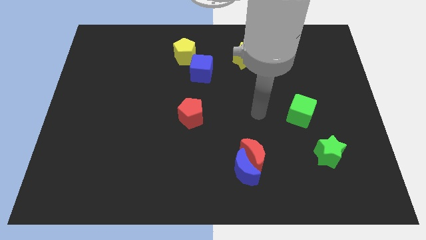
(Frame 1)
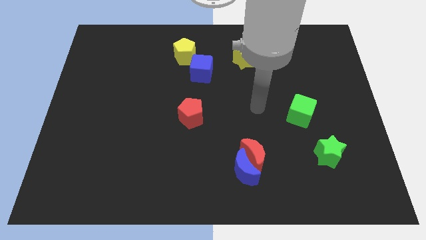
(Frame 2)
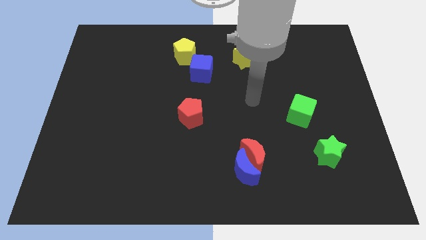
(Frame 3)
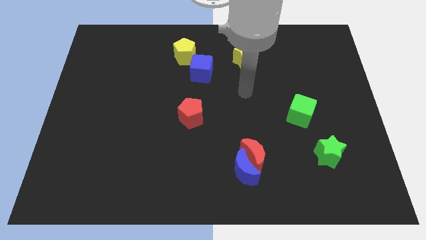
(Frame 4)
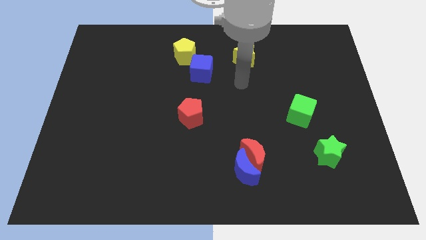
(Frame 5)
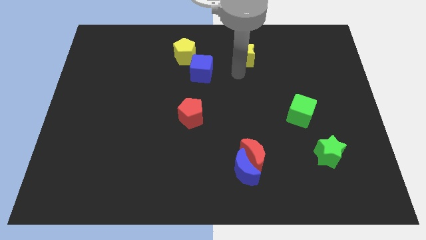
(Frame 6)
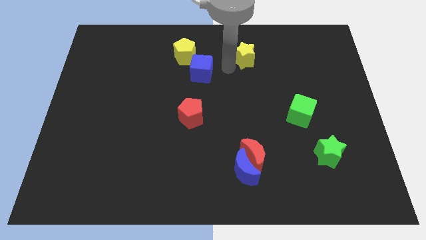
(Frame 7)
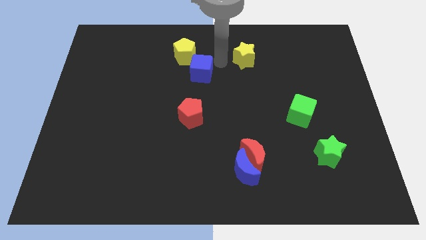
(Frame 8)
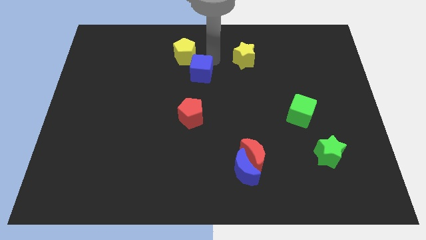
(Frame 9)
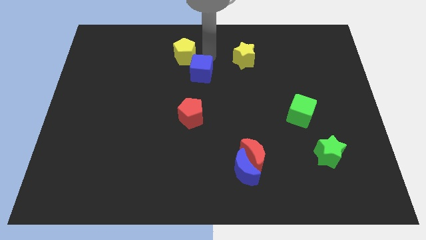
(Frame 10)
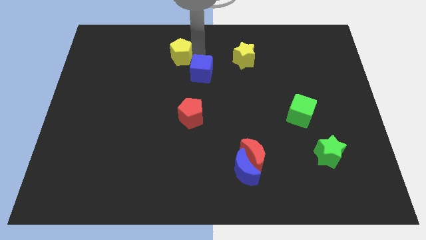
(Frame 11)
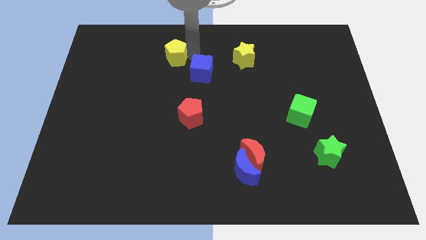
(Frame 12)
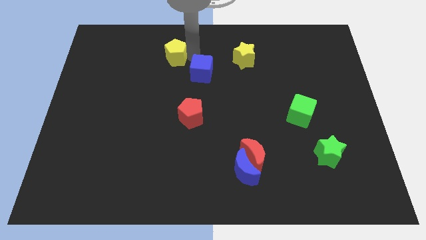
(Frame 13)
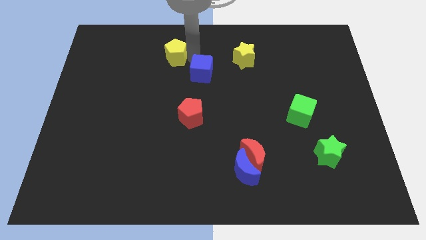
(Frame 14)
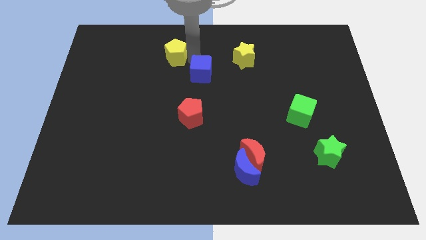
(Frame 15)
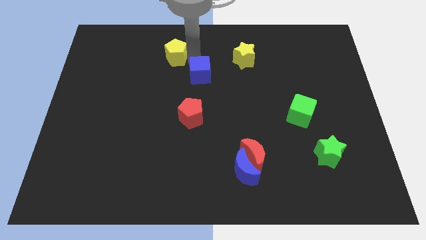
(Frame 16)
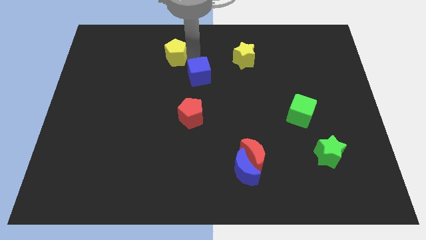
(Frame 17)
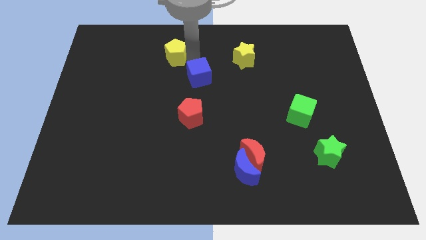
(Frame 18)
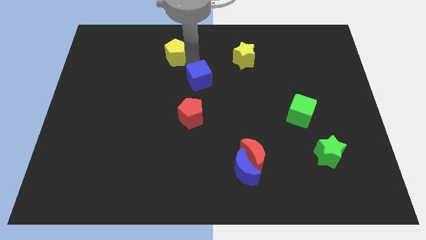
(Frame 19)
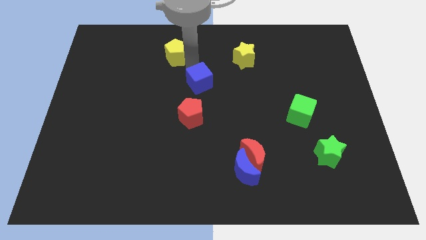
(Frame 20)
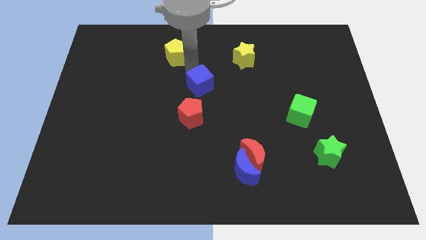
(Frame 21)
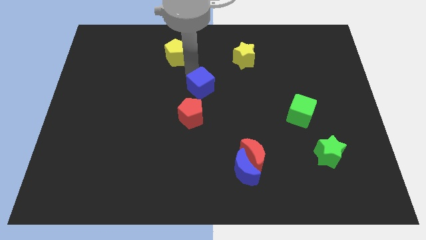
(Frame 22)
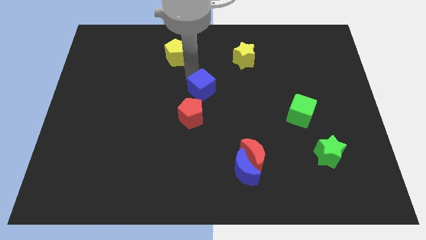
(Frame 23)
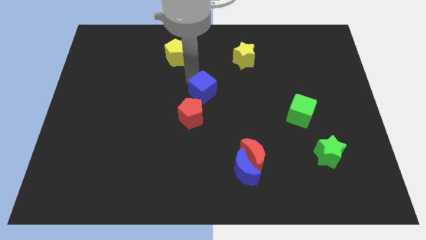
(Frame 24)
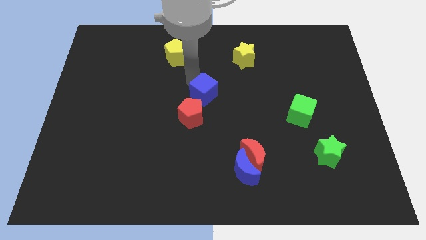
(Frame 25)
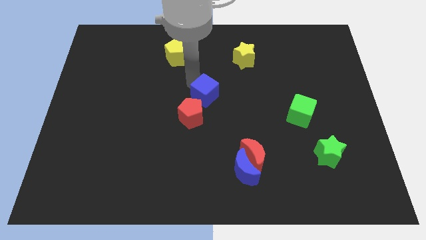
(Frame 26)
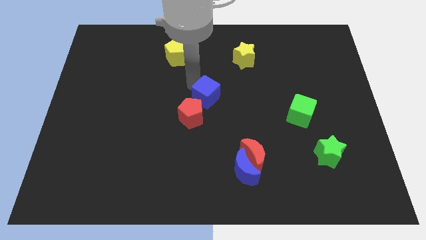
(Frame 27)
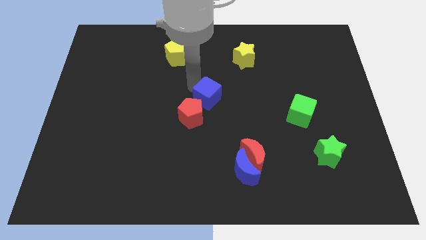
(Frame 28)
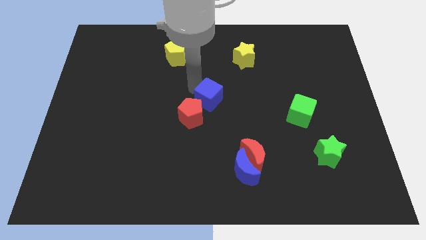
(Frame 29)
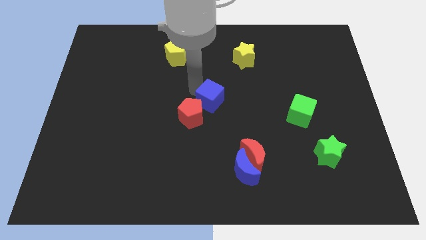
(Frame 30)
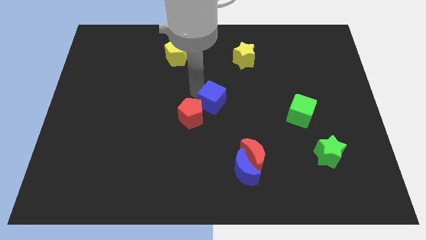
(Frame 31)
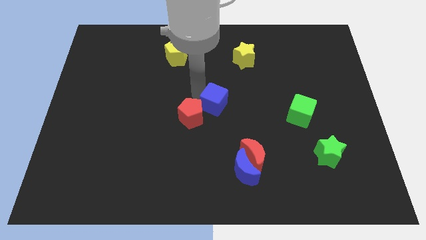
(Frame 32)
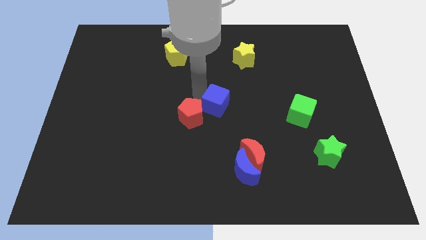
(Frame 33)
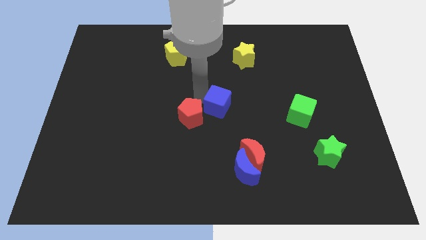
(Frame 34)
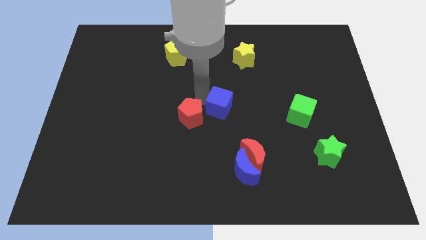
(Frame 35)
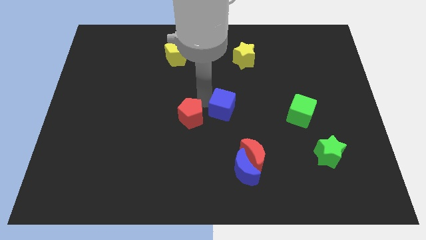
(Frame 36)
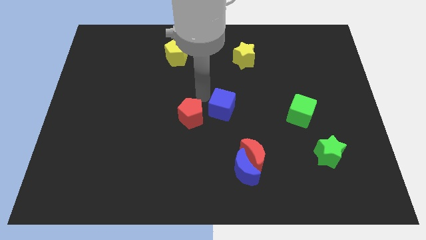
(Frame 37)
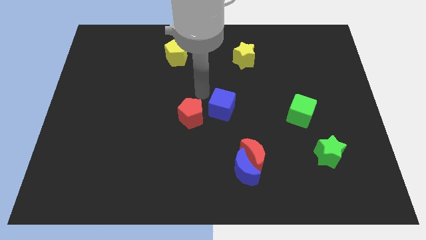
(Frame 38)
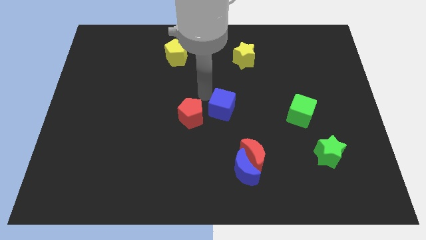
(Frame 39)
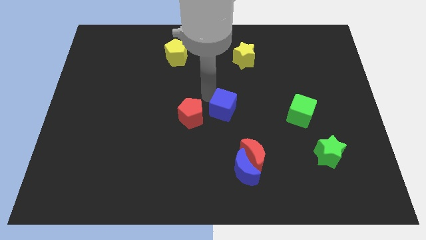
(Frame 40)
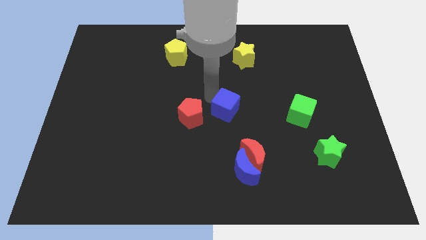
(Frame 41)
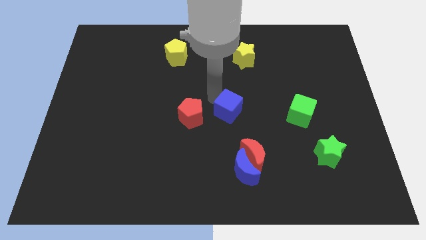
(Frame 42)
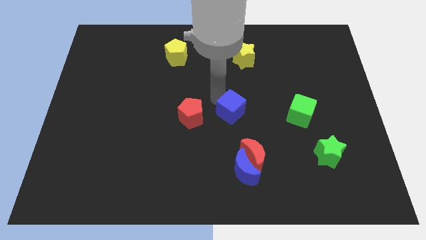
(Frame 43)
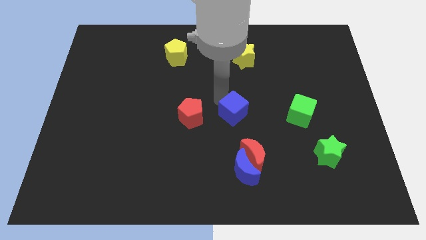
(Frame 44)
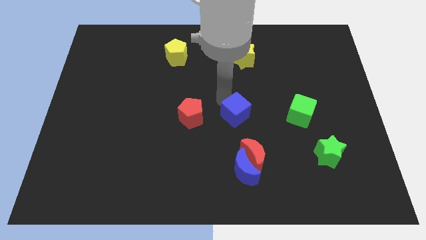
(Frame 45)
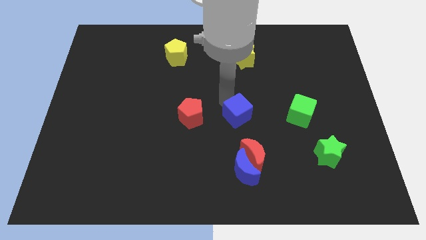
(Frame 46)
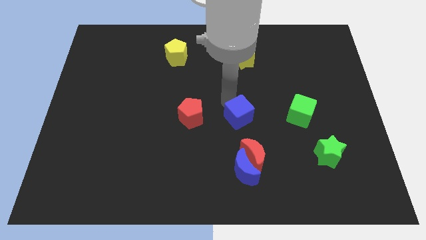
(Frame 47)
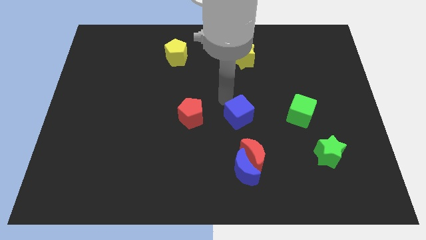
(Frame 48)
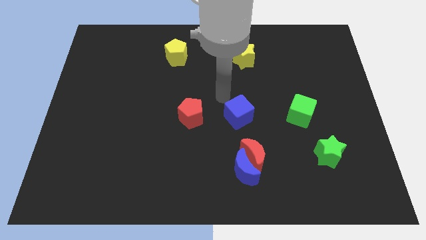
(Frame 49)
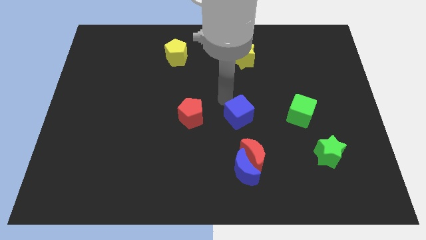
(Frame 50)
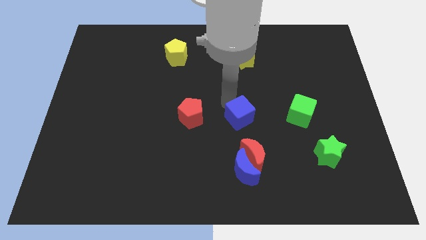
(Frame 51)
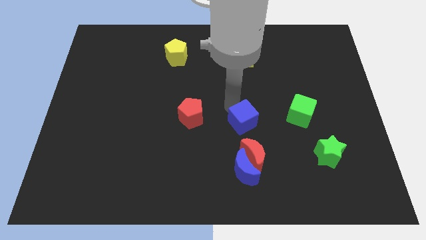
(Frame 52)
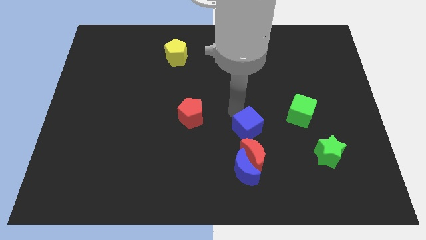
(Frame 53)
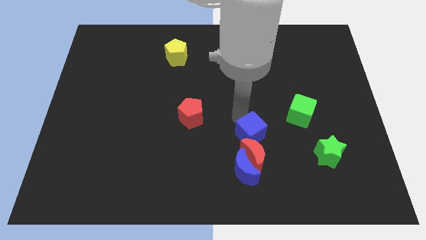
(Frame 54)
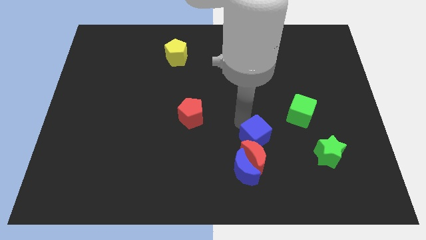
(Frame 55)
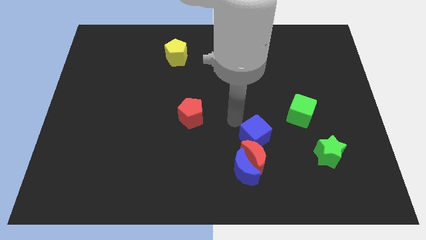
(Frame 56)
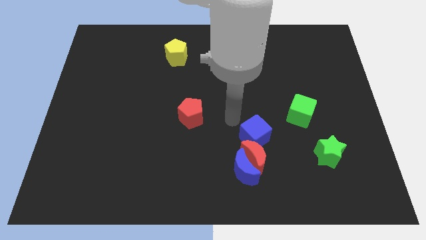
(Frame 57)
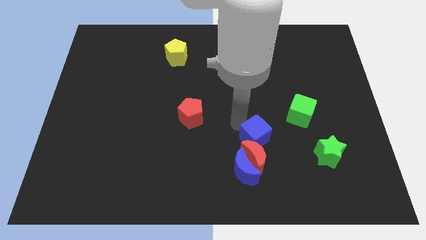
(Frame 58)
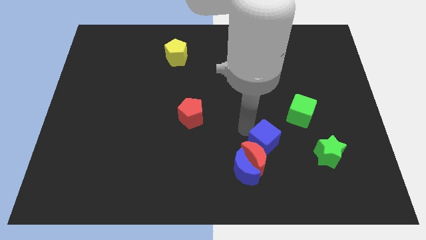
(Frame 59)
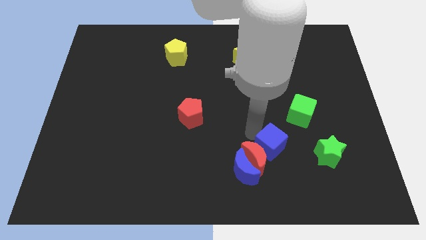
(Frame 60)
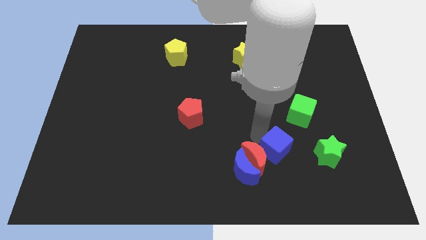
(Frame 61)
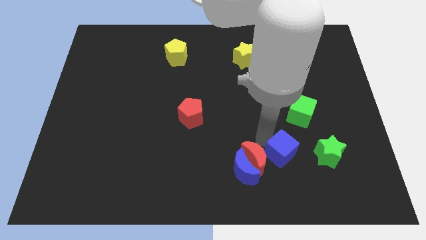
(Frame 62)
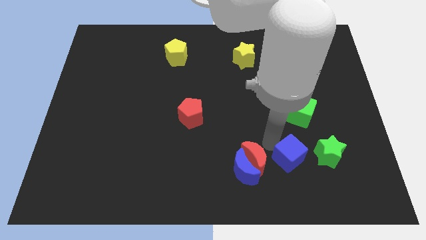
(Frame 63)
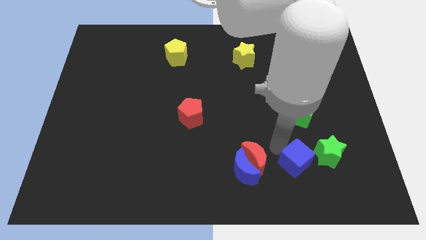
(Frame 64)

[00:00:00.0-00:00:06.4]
move the blue cube to the bottom left side of the green star

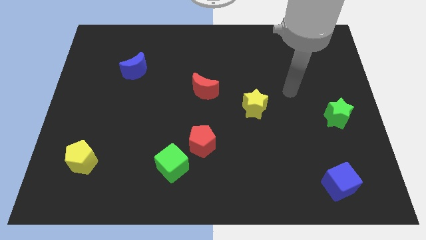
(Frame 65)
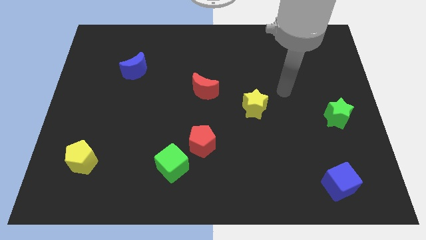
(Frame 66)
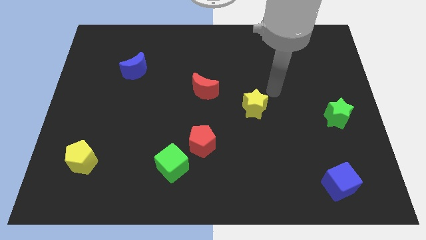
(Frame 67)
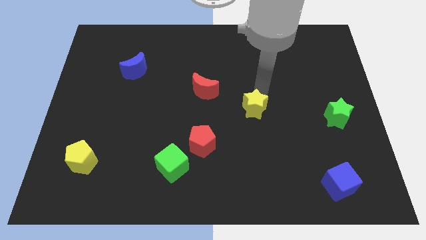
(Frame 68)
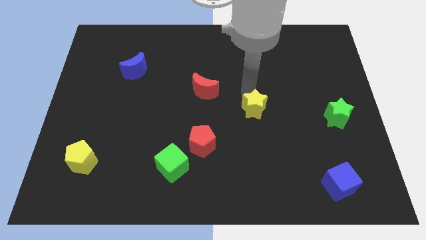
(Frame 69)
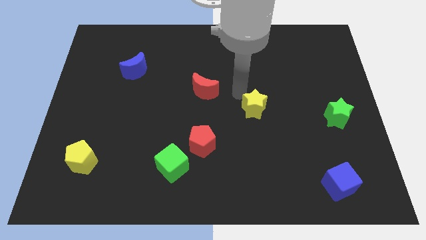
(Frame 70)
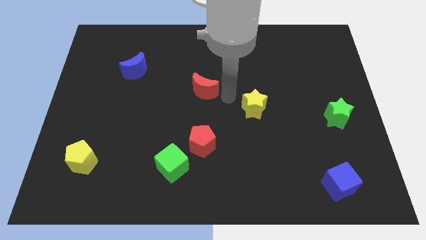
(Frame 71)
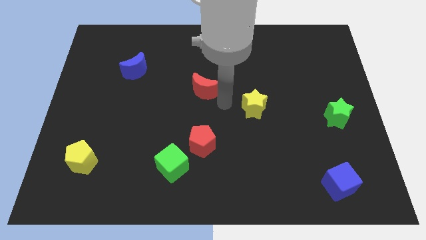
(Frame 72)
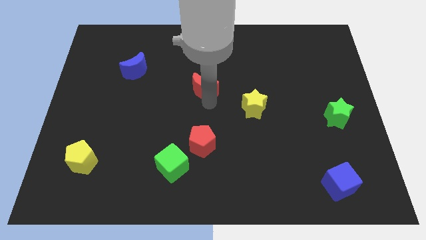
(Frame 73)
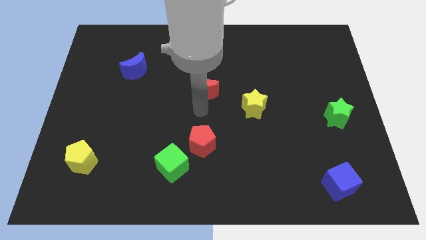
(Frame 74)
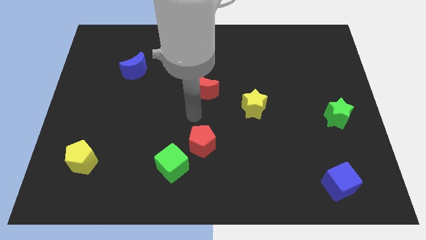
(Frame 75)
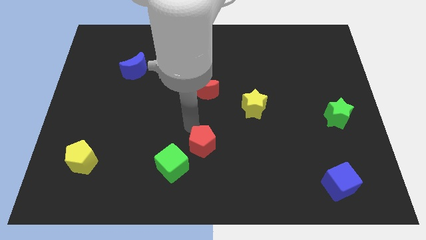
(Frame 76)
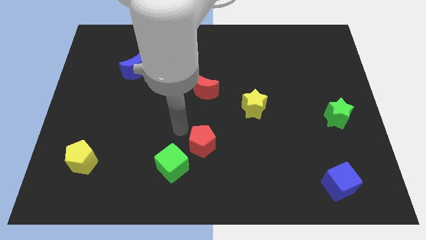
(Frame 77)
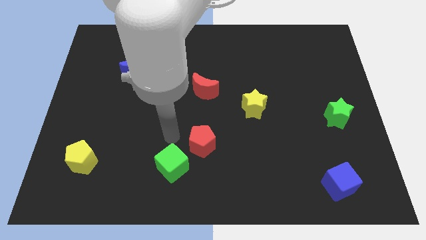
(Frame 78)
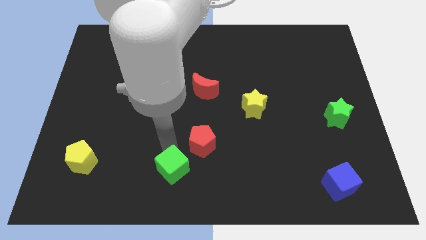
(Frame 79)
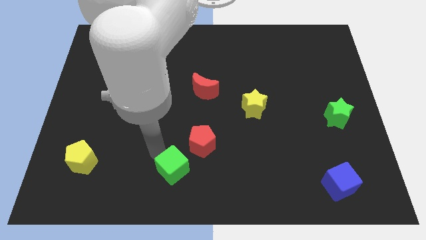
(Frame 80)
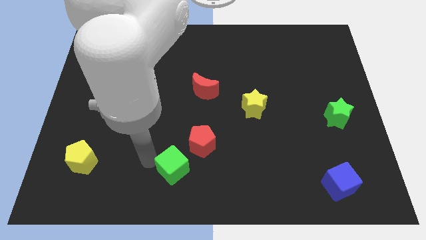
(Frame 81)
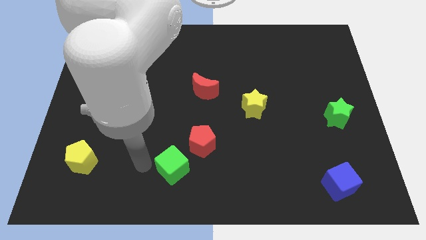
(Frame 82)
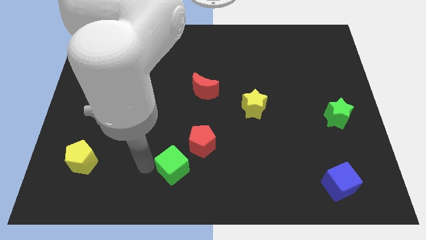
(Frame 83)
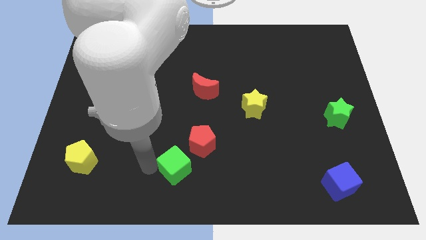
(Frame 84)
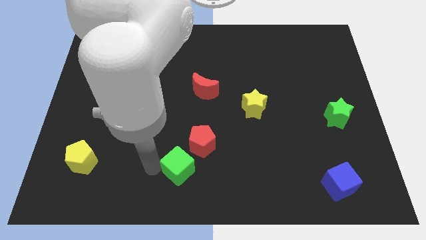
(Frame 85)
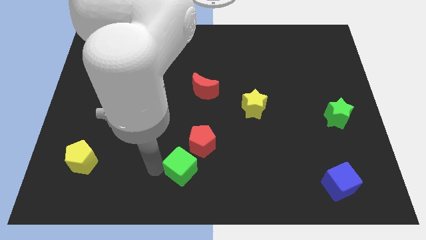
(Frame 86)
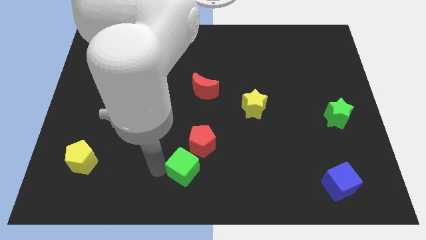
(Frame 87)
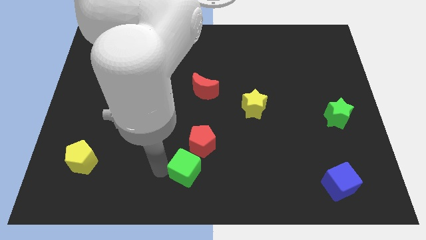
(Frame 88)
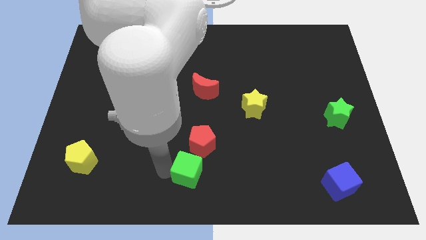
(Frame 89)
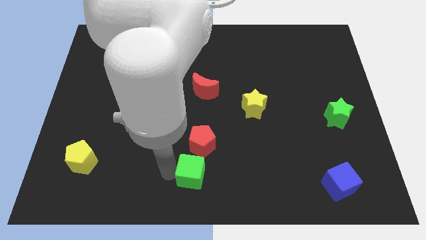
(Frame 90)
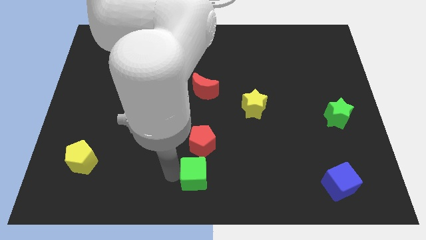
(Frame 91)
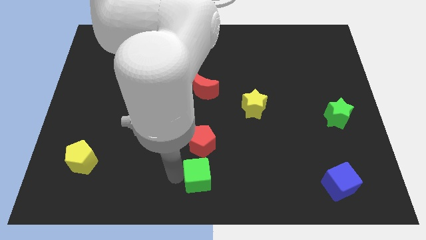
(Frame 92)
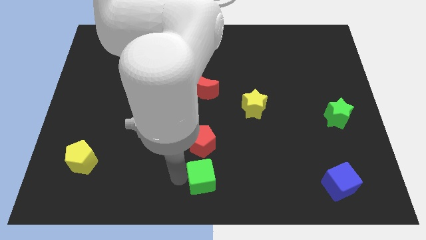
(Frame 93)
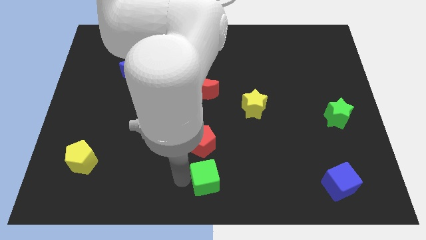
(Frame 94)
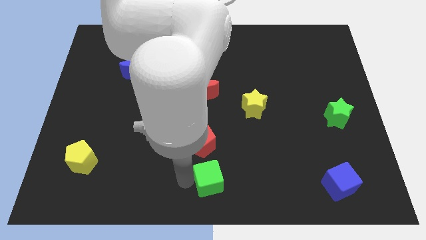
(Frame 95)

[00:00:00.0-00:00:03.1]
push the green cube diagonally down and to the right of the red pentagon
